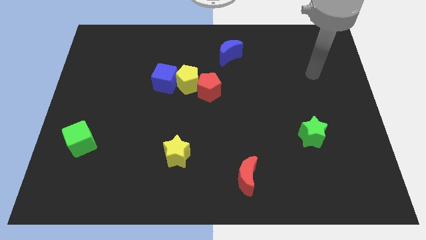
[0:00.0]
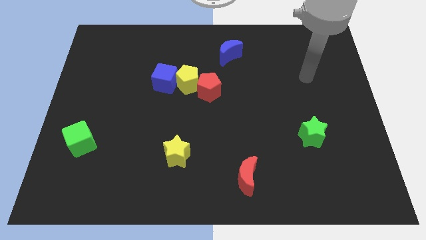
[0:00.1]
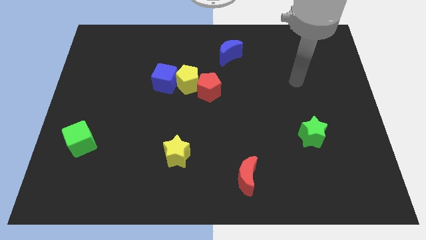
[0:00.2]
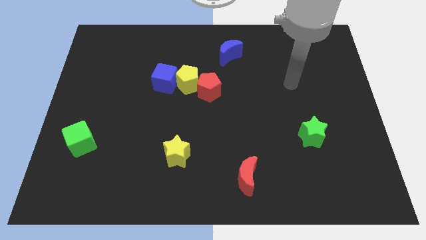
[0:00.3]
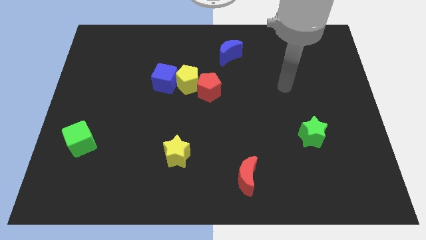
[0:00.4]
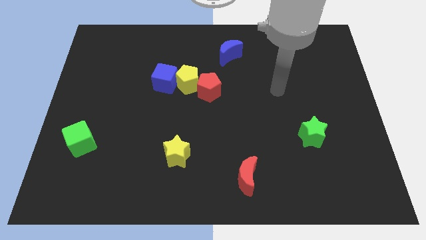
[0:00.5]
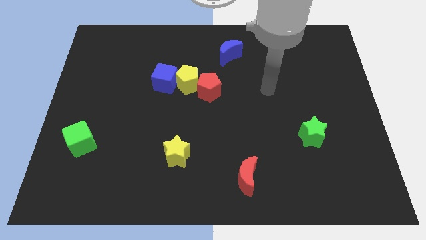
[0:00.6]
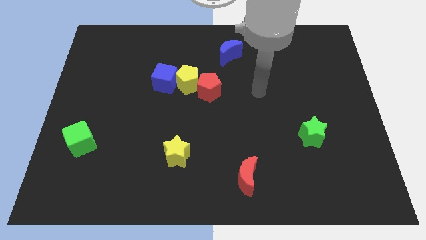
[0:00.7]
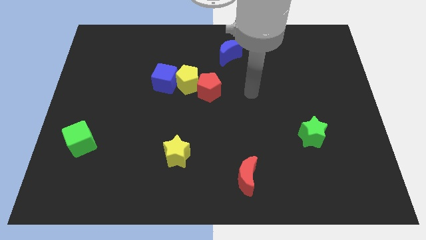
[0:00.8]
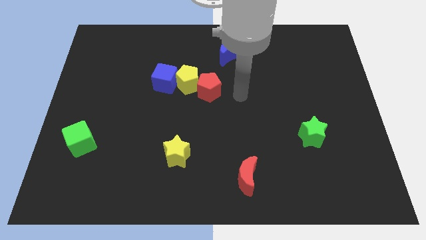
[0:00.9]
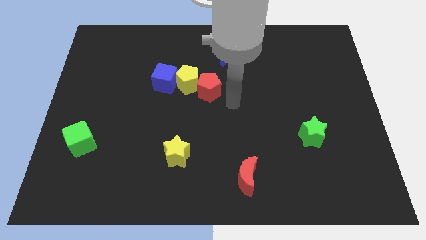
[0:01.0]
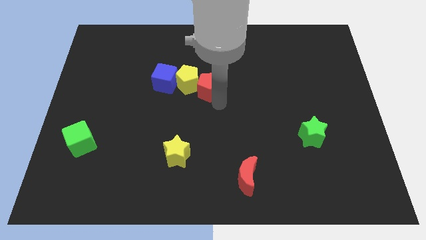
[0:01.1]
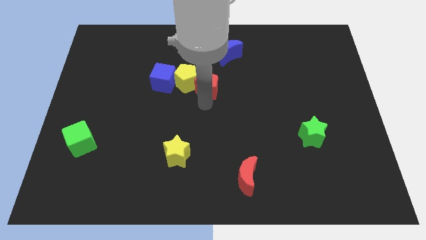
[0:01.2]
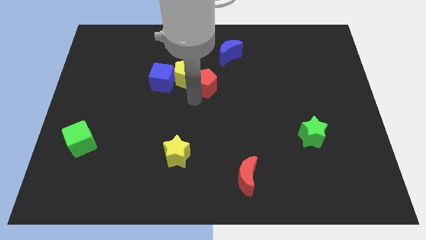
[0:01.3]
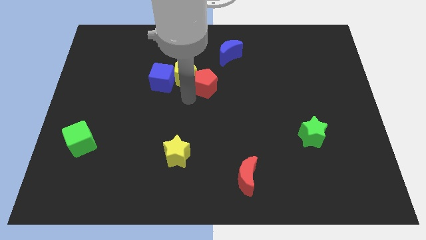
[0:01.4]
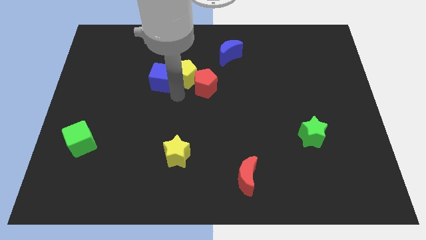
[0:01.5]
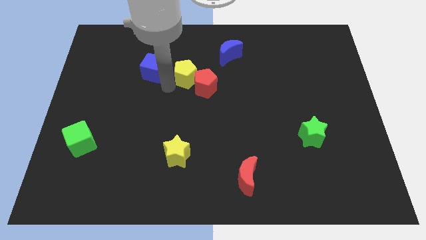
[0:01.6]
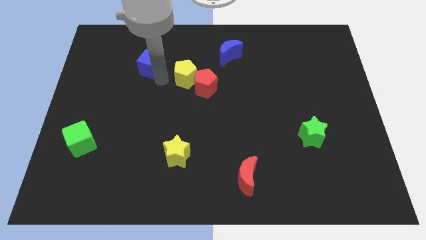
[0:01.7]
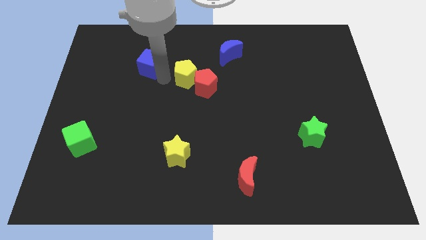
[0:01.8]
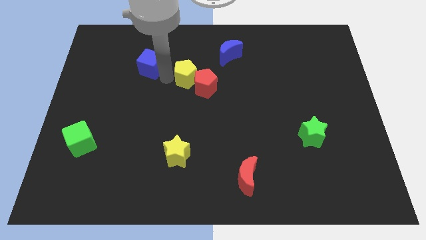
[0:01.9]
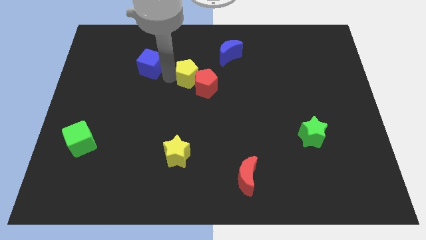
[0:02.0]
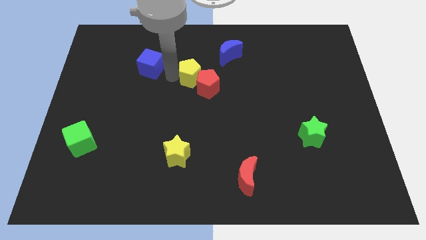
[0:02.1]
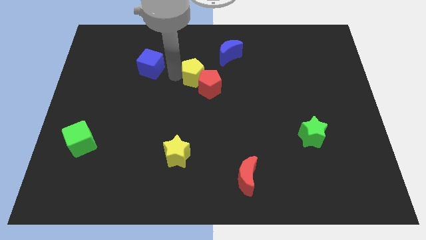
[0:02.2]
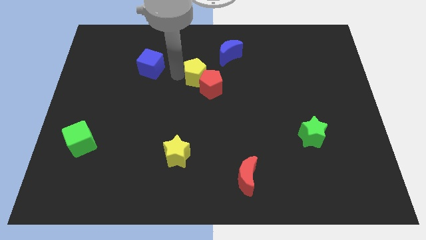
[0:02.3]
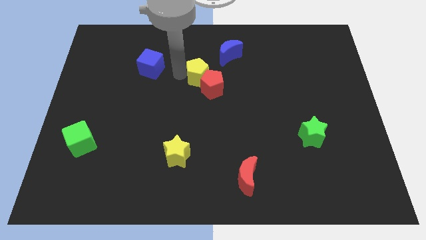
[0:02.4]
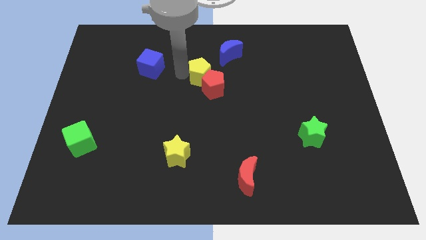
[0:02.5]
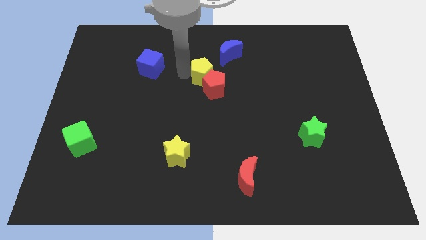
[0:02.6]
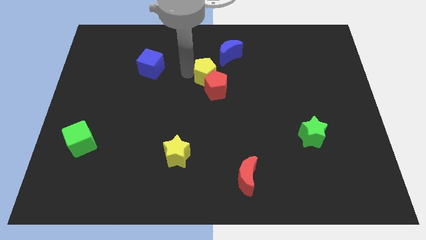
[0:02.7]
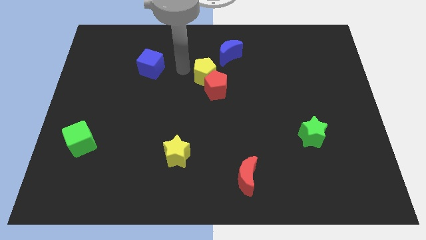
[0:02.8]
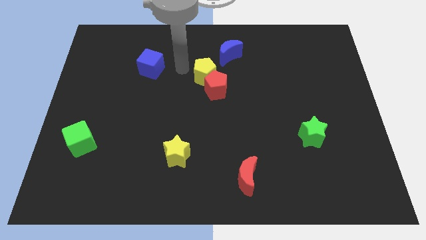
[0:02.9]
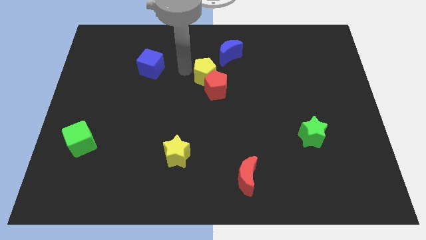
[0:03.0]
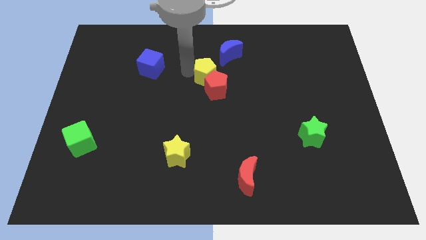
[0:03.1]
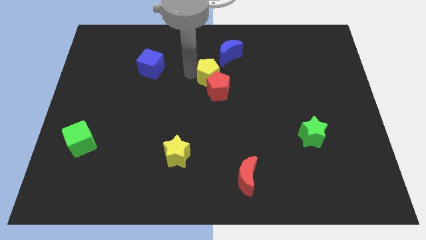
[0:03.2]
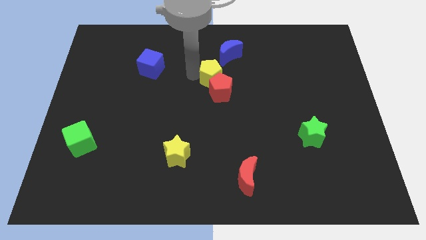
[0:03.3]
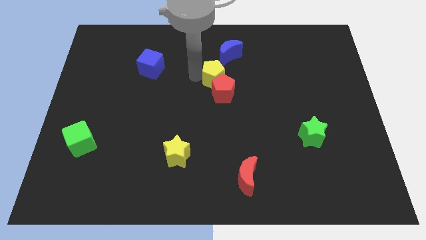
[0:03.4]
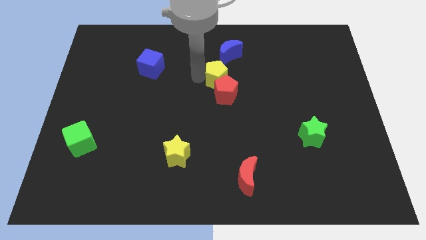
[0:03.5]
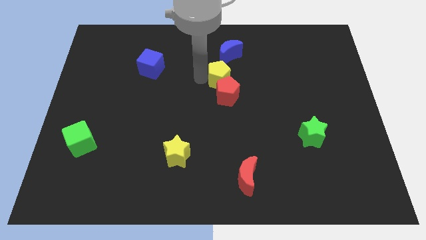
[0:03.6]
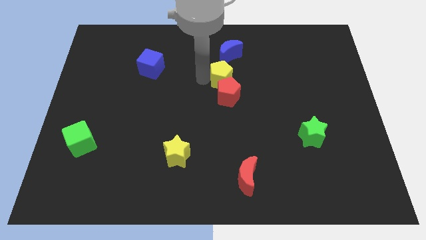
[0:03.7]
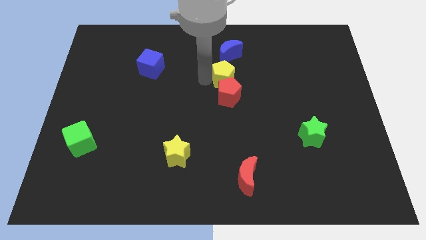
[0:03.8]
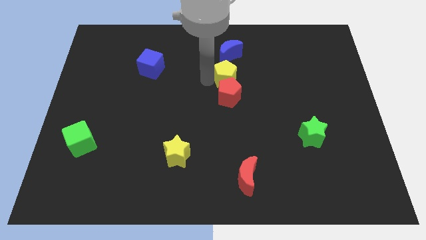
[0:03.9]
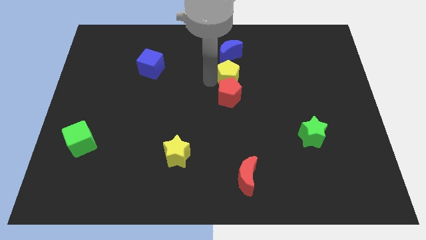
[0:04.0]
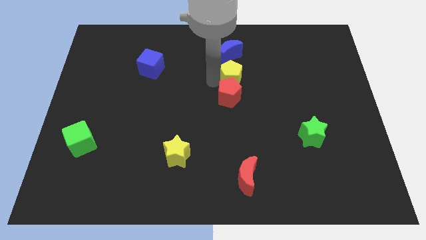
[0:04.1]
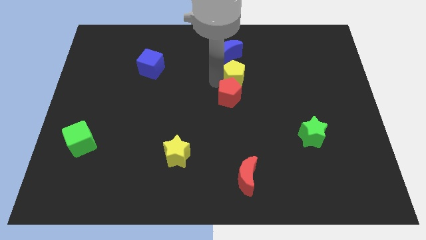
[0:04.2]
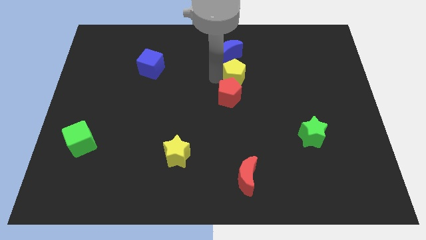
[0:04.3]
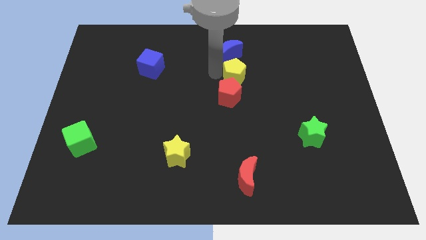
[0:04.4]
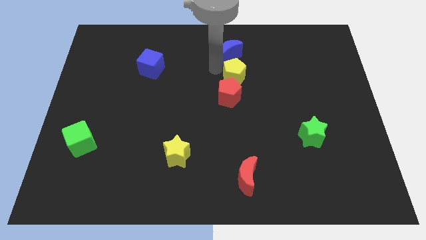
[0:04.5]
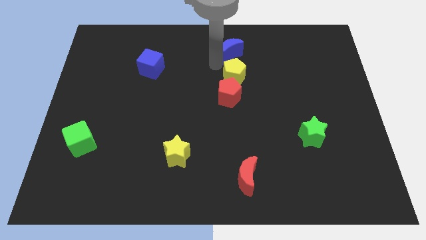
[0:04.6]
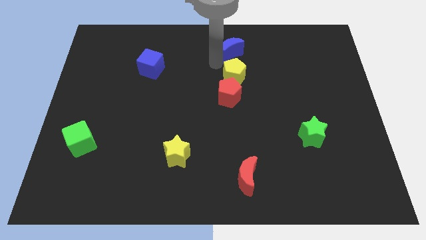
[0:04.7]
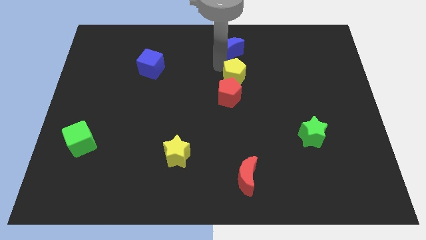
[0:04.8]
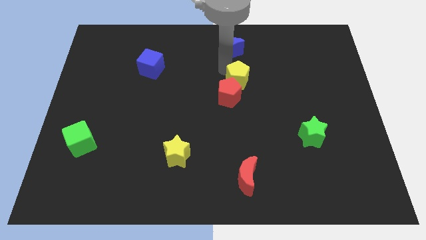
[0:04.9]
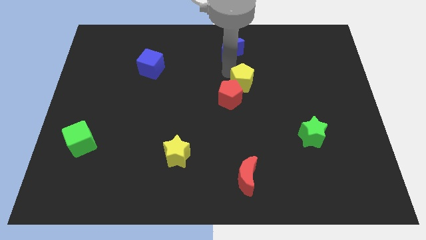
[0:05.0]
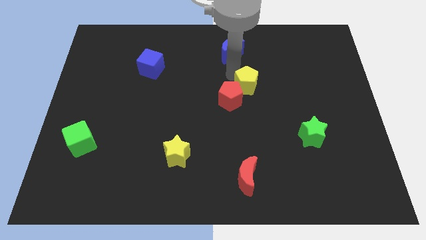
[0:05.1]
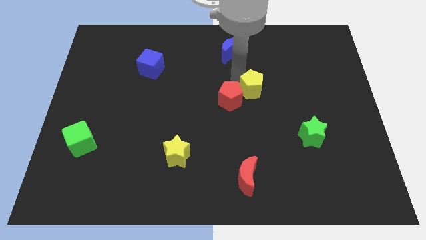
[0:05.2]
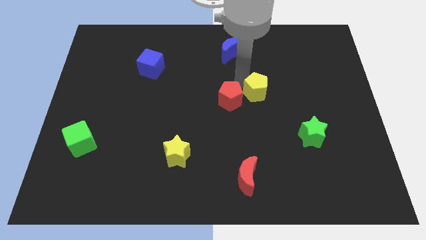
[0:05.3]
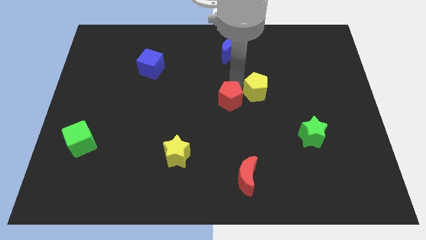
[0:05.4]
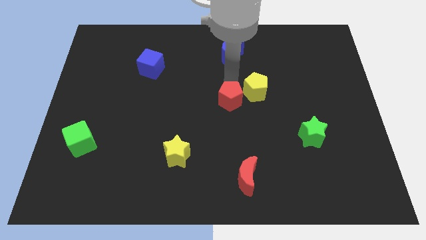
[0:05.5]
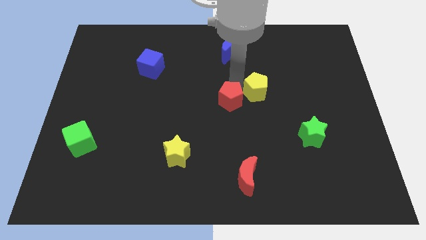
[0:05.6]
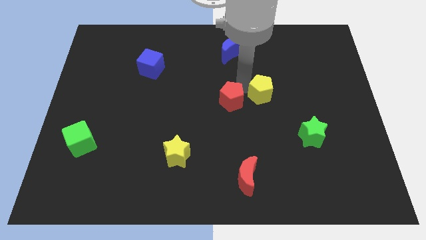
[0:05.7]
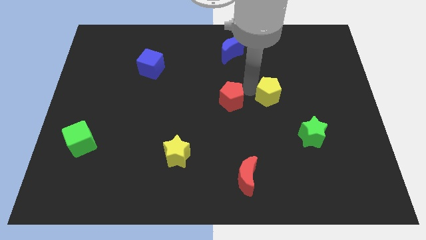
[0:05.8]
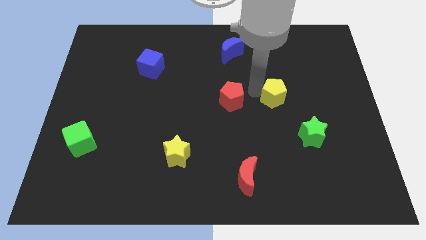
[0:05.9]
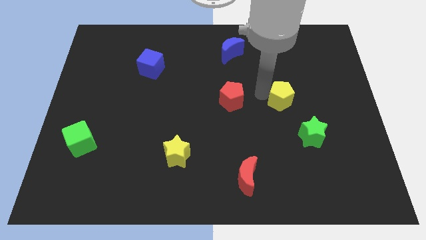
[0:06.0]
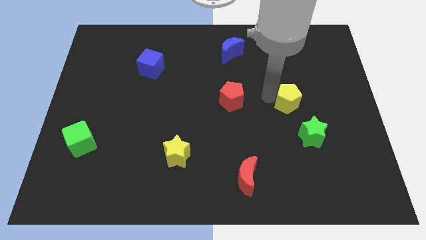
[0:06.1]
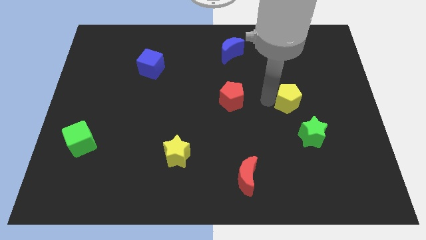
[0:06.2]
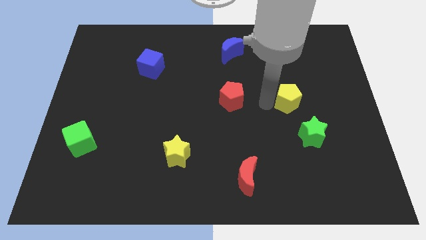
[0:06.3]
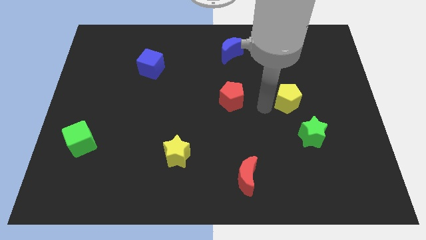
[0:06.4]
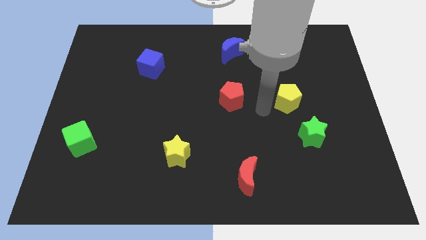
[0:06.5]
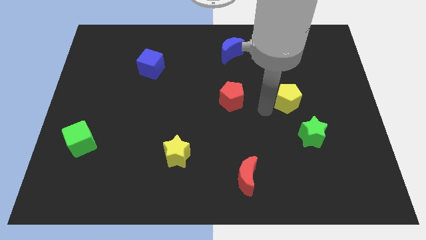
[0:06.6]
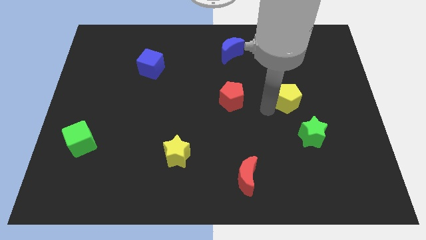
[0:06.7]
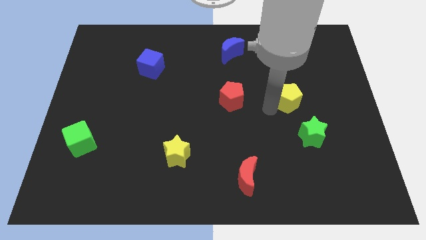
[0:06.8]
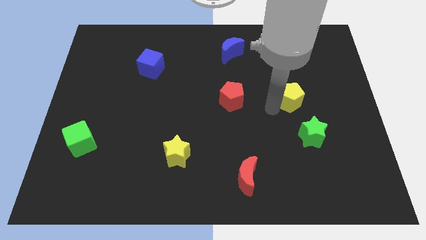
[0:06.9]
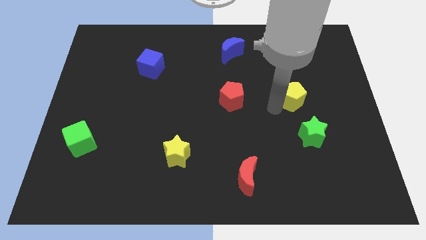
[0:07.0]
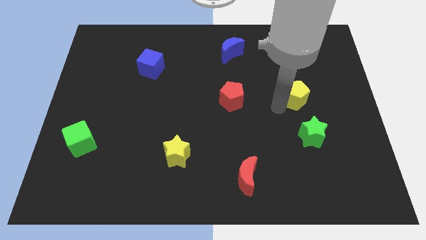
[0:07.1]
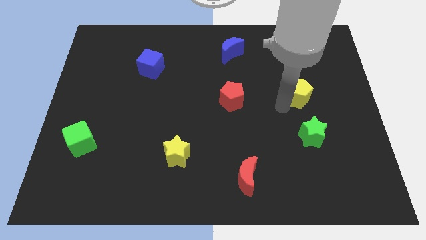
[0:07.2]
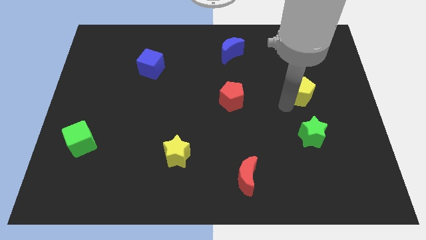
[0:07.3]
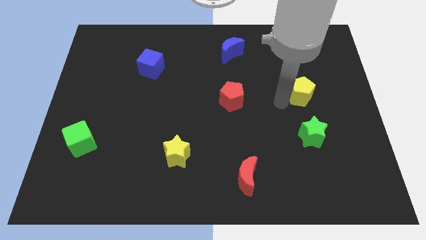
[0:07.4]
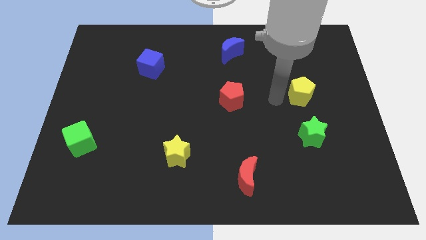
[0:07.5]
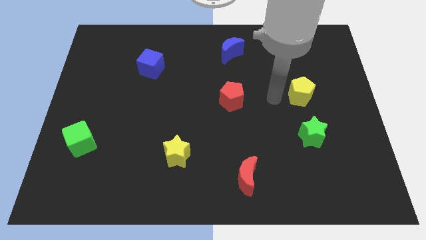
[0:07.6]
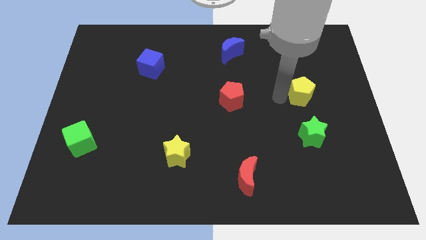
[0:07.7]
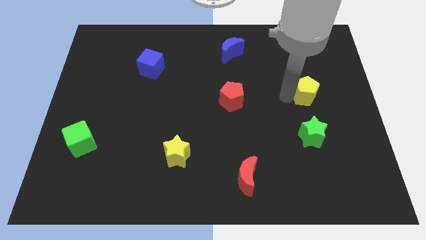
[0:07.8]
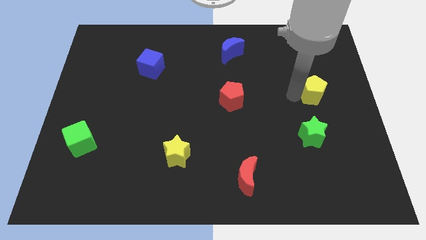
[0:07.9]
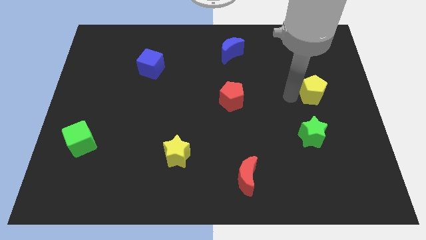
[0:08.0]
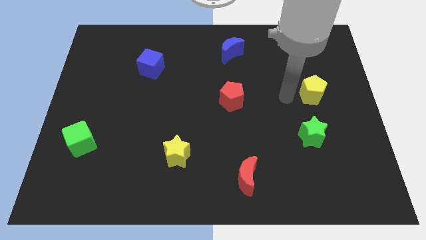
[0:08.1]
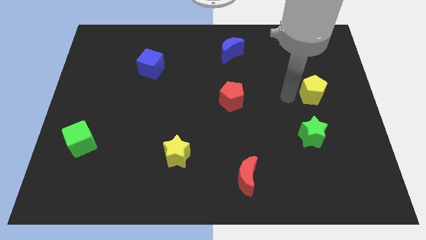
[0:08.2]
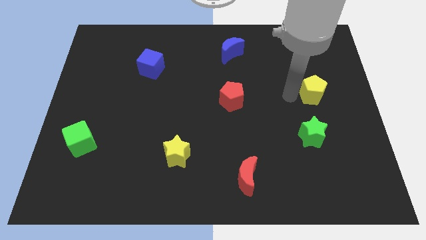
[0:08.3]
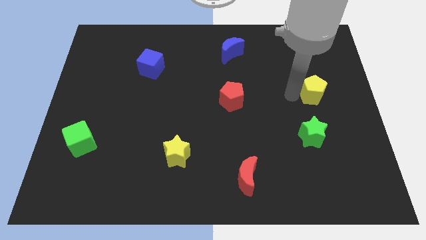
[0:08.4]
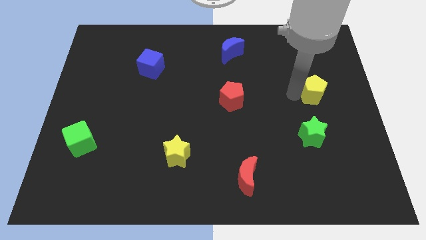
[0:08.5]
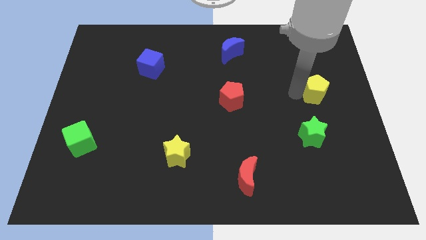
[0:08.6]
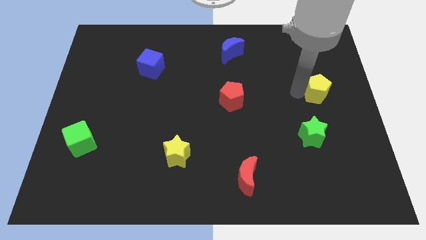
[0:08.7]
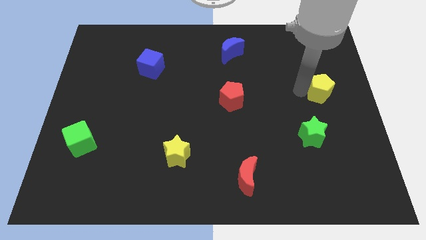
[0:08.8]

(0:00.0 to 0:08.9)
move the yellow pentagon to the right side
